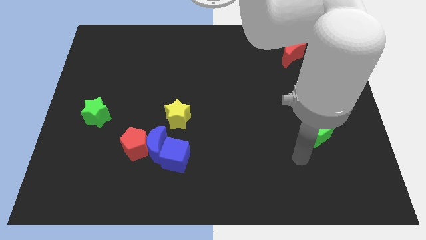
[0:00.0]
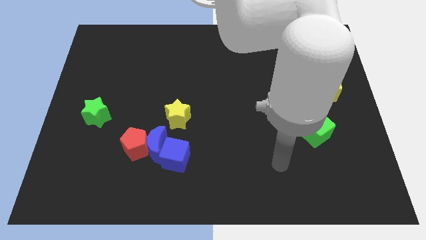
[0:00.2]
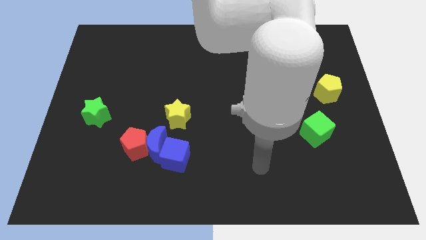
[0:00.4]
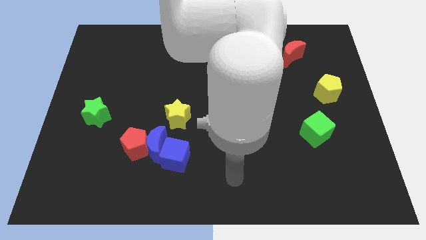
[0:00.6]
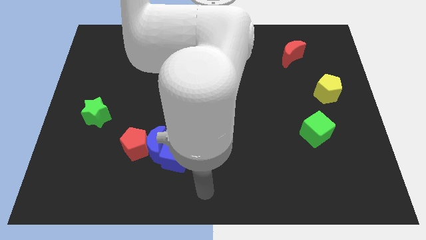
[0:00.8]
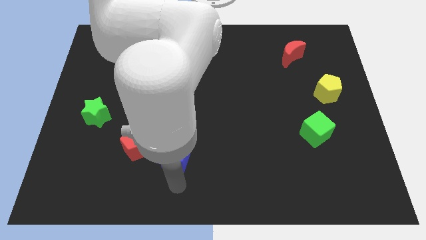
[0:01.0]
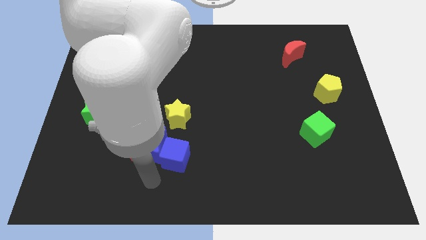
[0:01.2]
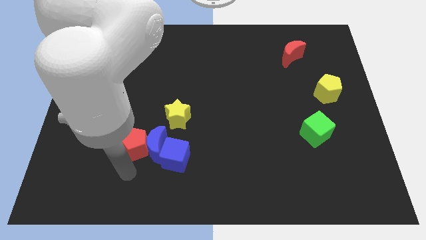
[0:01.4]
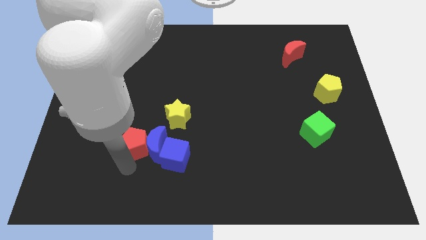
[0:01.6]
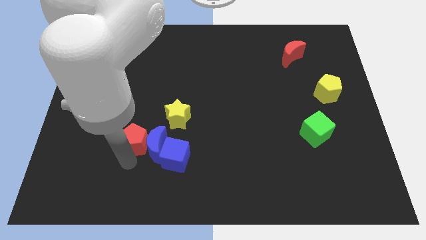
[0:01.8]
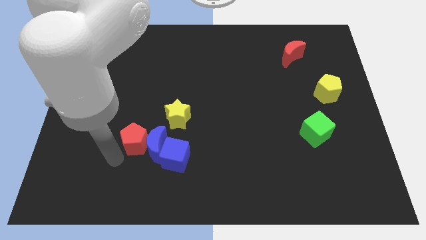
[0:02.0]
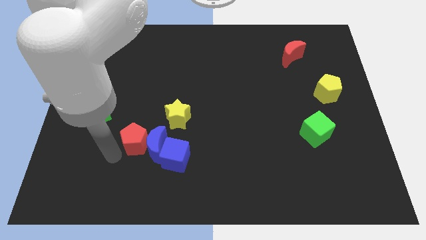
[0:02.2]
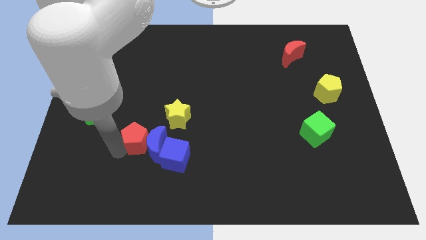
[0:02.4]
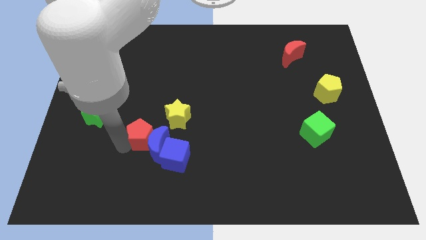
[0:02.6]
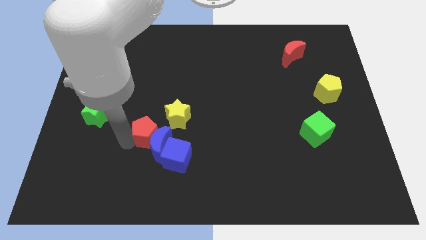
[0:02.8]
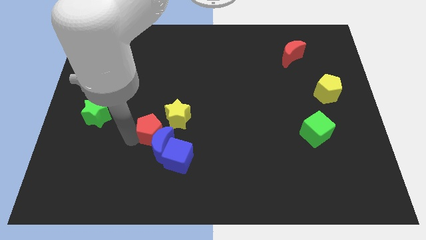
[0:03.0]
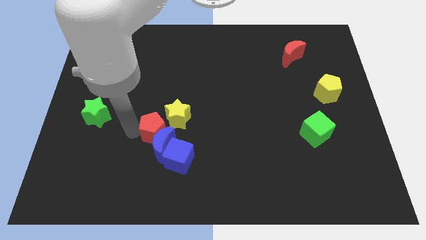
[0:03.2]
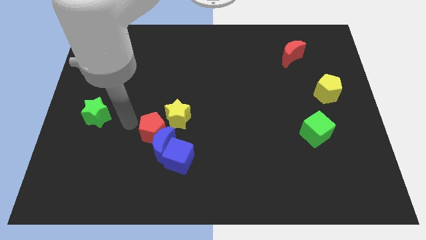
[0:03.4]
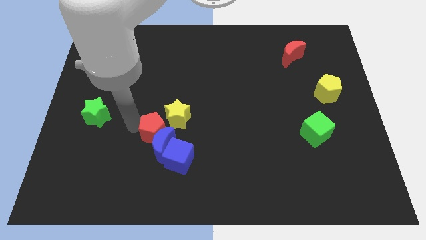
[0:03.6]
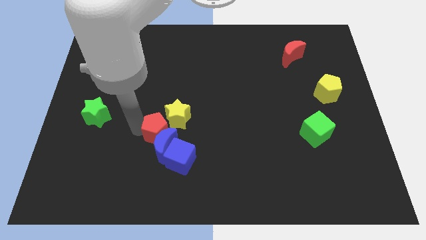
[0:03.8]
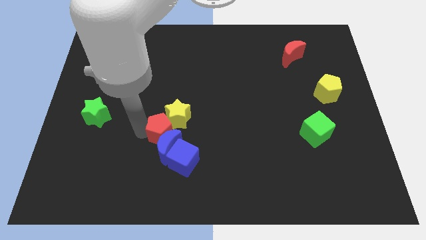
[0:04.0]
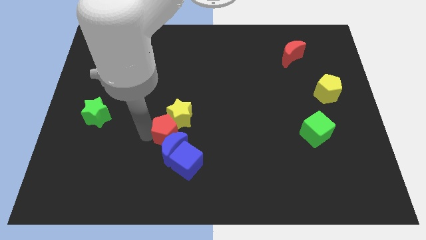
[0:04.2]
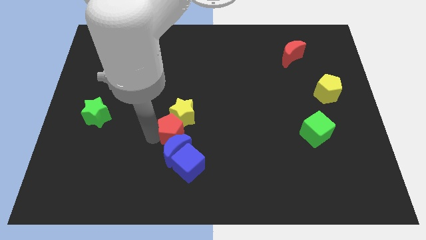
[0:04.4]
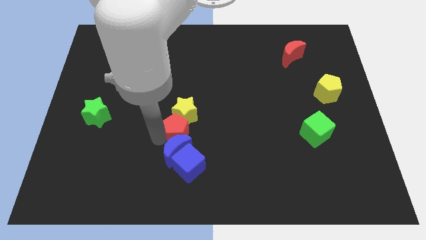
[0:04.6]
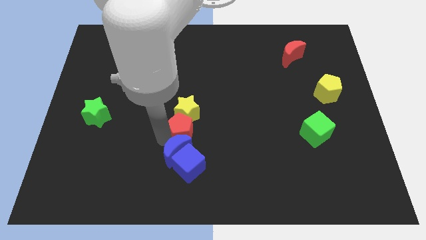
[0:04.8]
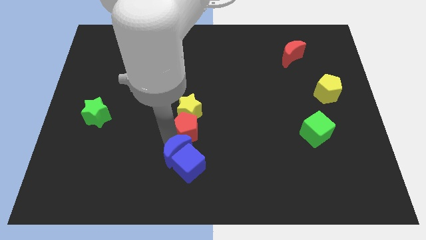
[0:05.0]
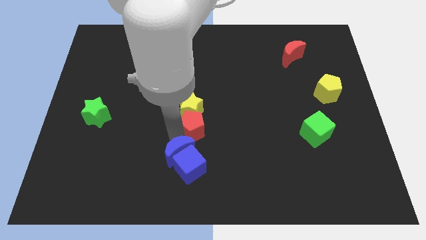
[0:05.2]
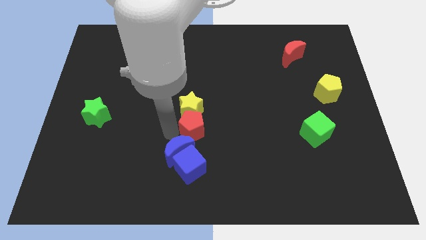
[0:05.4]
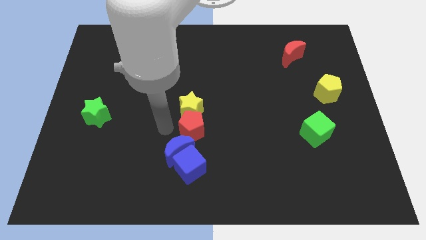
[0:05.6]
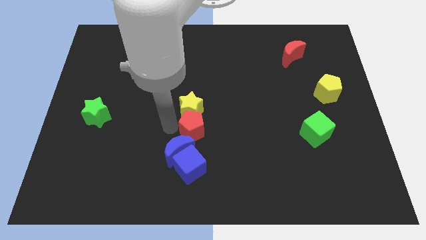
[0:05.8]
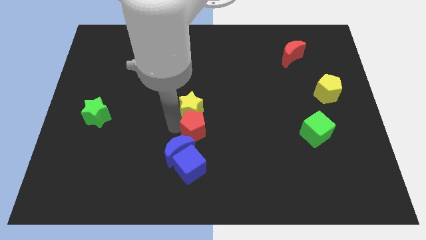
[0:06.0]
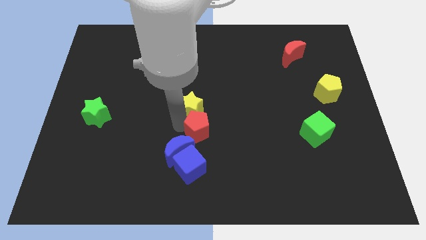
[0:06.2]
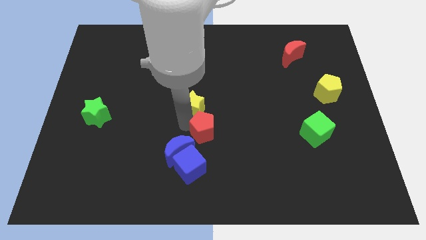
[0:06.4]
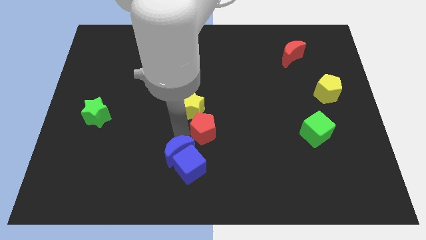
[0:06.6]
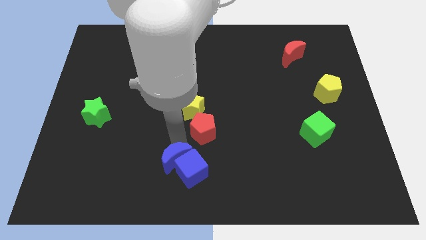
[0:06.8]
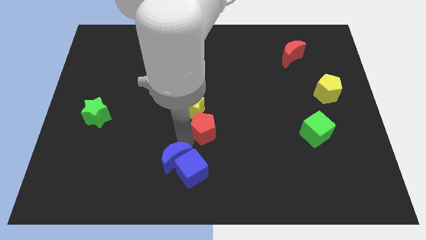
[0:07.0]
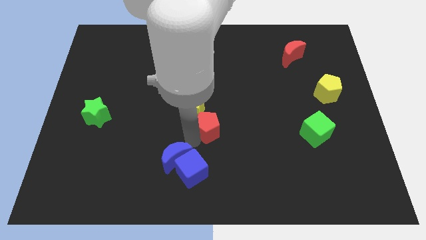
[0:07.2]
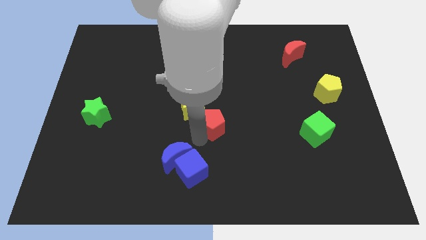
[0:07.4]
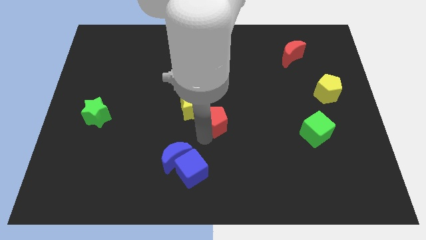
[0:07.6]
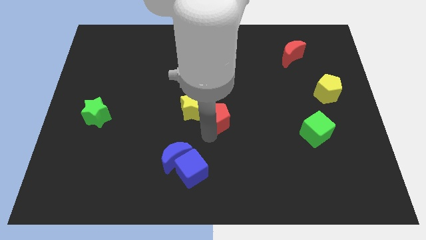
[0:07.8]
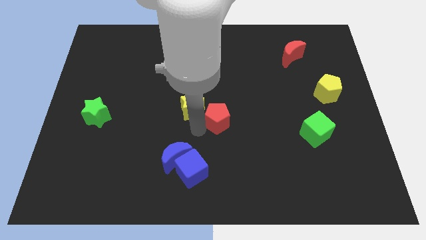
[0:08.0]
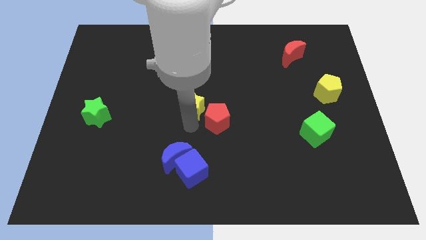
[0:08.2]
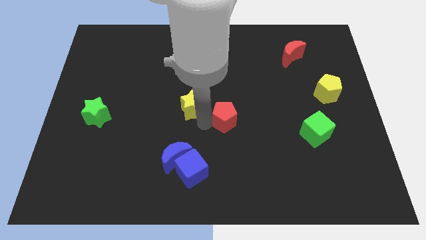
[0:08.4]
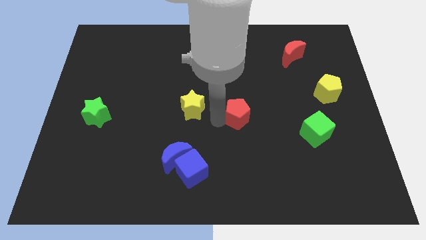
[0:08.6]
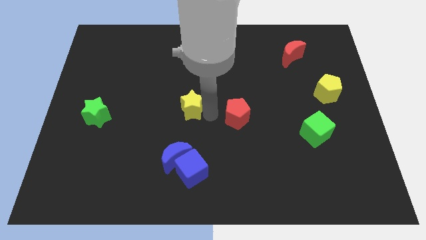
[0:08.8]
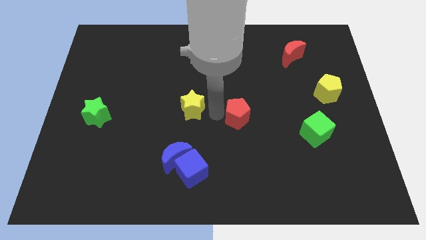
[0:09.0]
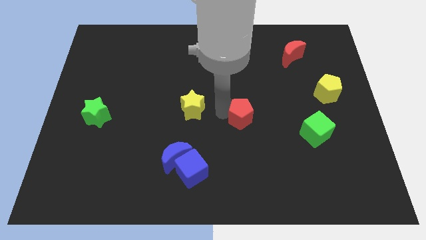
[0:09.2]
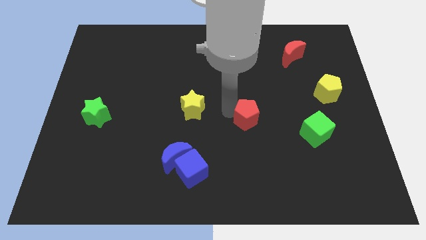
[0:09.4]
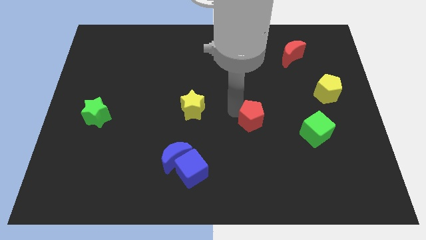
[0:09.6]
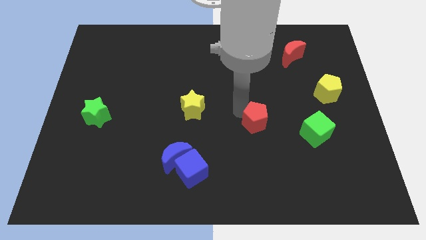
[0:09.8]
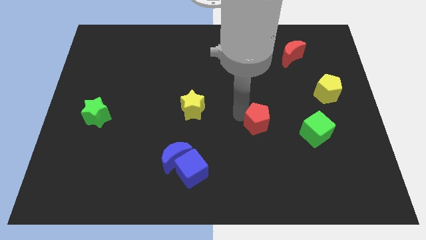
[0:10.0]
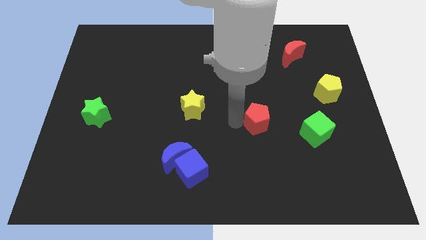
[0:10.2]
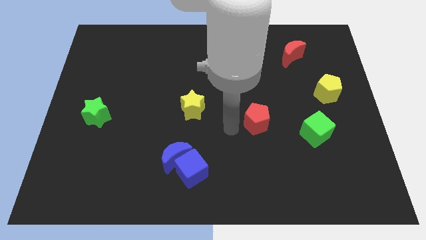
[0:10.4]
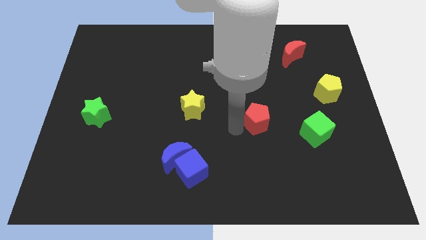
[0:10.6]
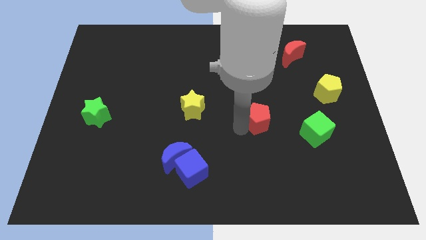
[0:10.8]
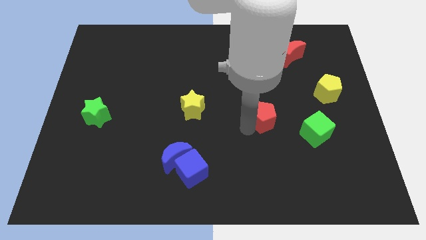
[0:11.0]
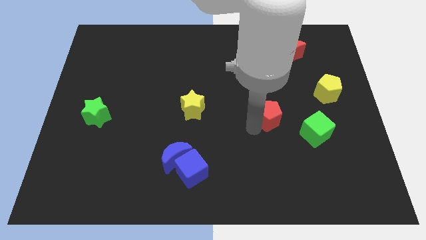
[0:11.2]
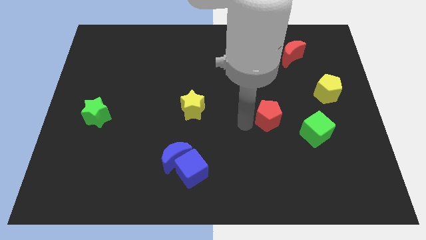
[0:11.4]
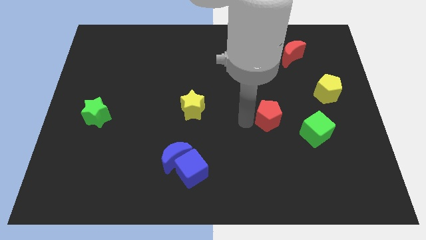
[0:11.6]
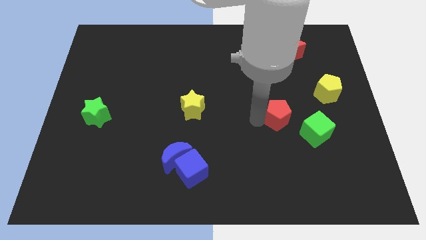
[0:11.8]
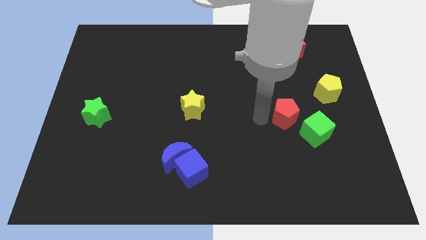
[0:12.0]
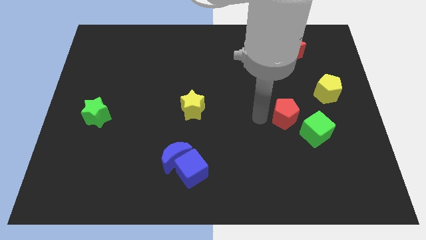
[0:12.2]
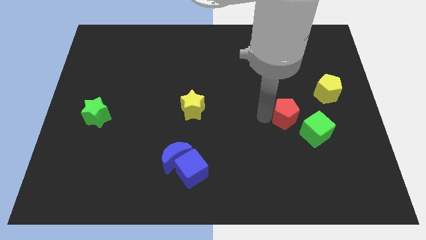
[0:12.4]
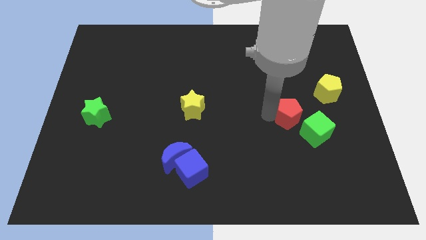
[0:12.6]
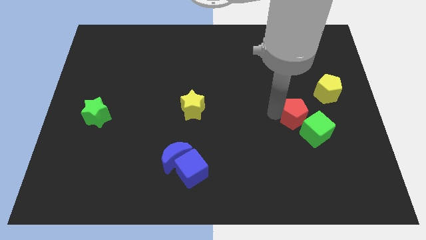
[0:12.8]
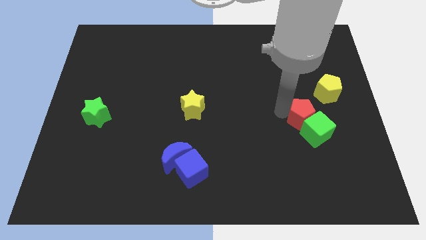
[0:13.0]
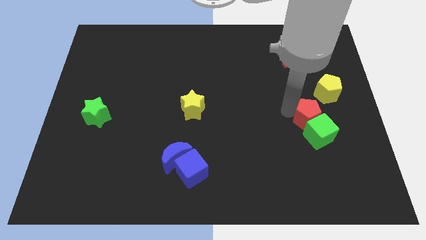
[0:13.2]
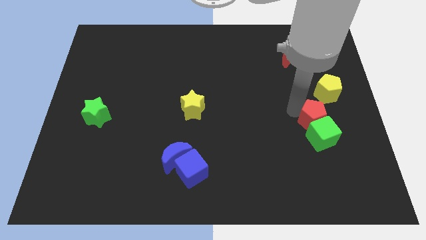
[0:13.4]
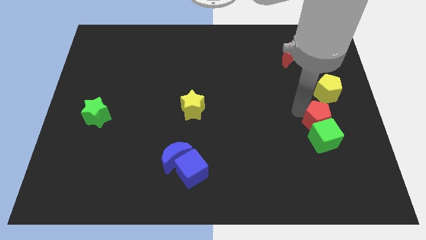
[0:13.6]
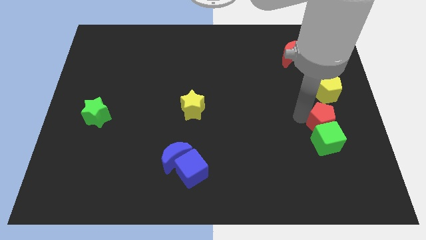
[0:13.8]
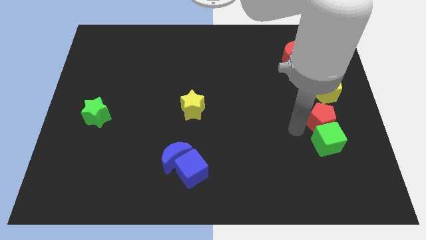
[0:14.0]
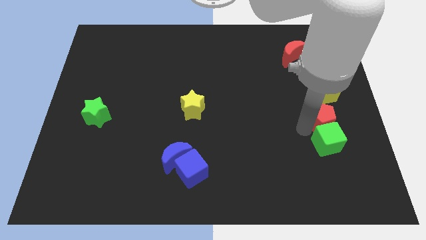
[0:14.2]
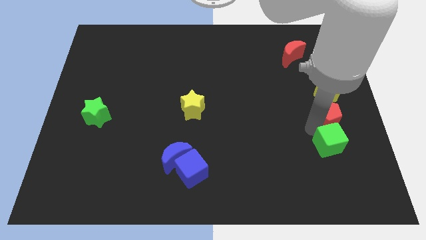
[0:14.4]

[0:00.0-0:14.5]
move the red pentagon to the right side
